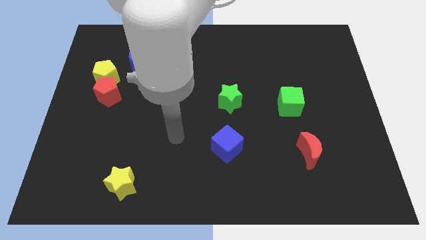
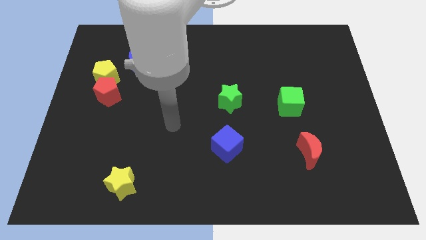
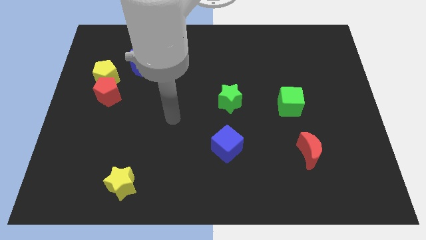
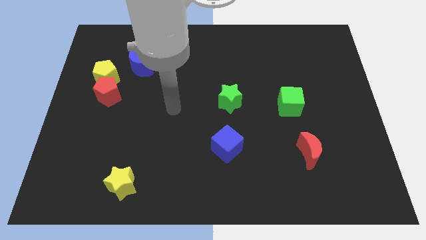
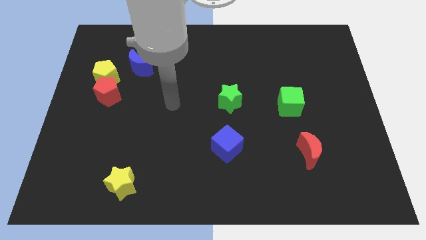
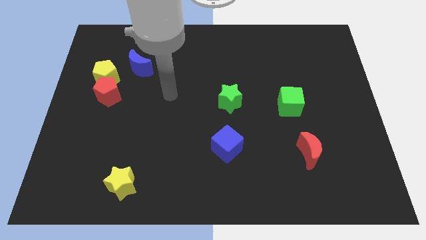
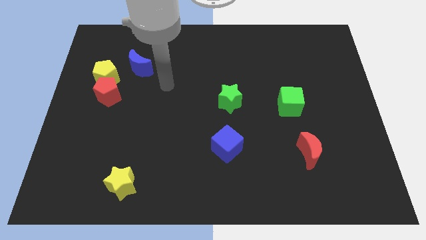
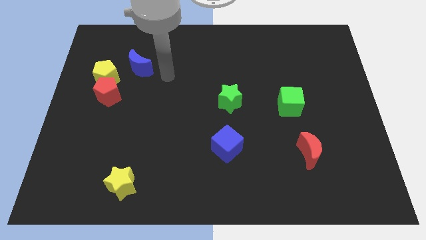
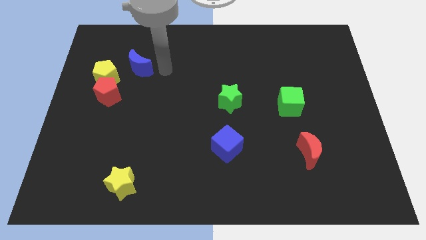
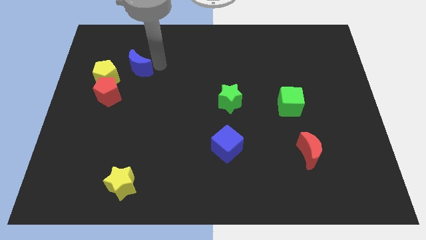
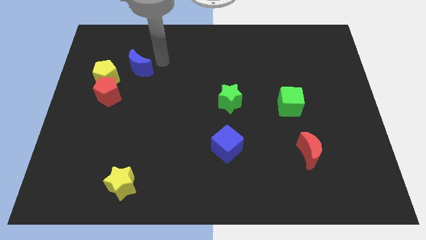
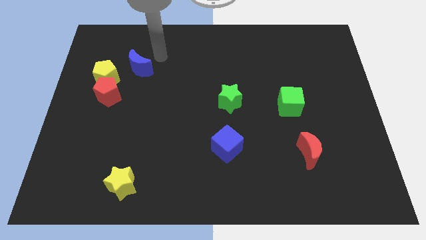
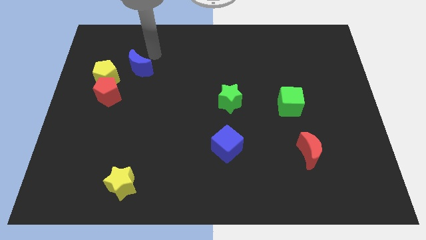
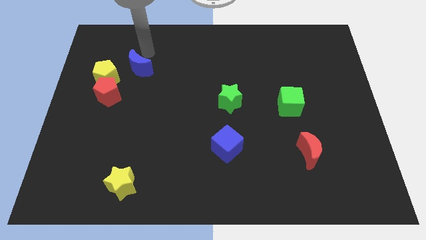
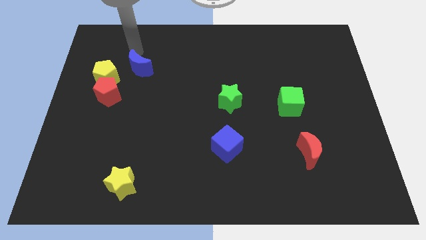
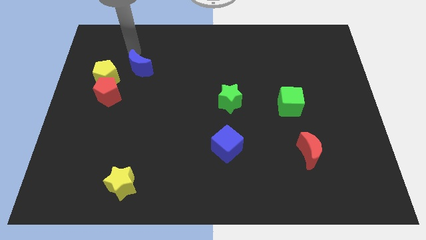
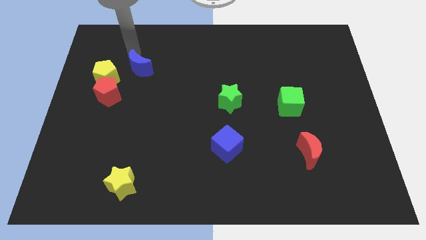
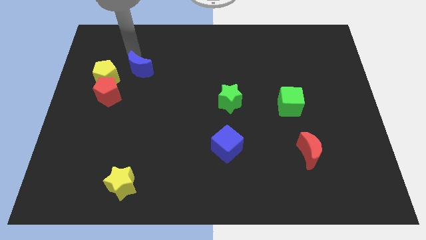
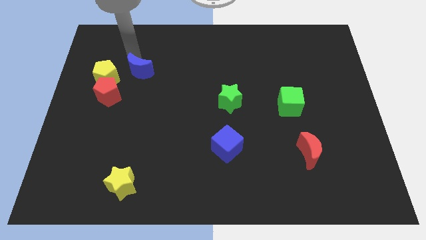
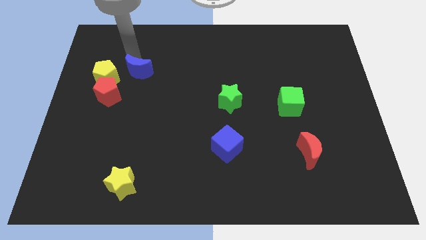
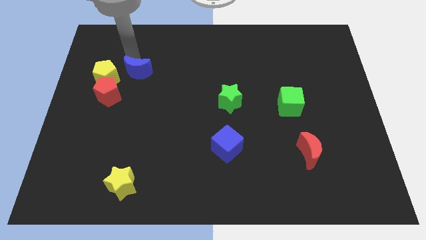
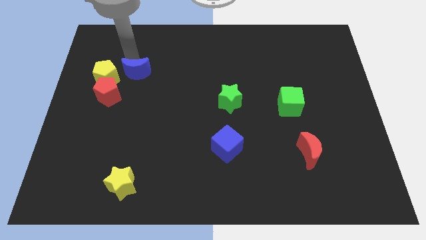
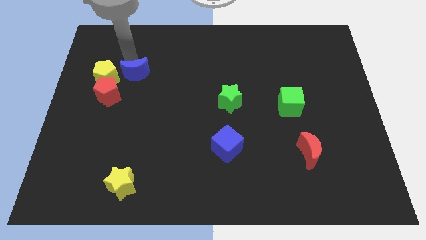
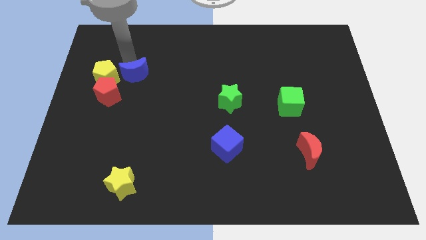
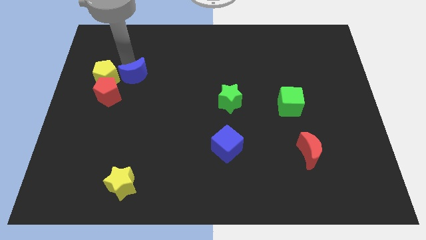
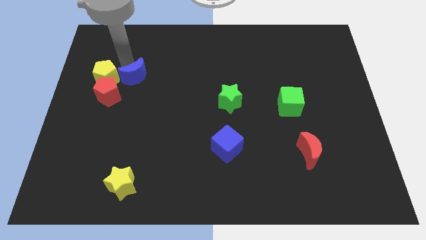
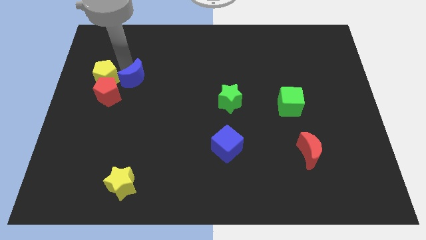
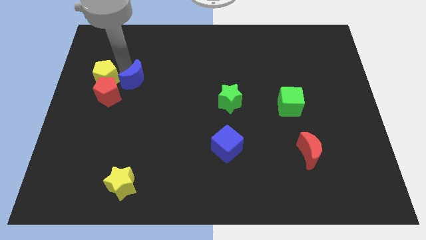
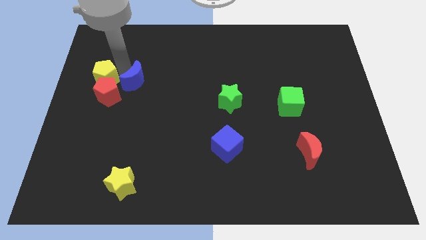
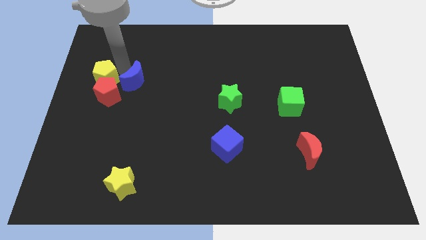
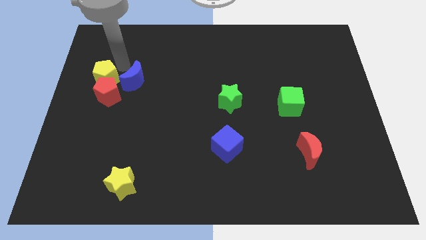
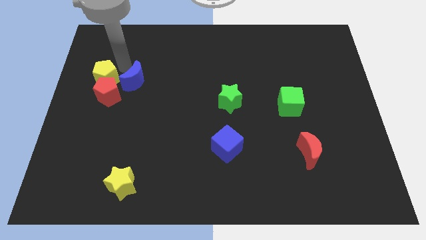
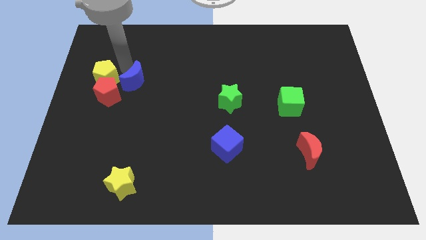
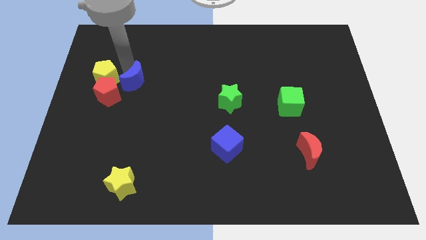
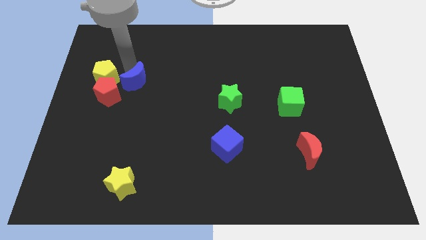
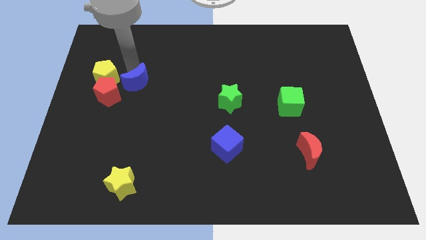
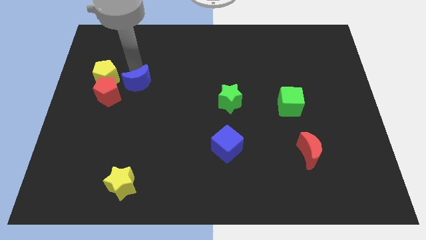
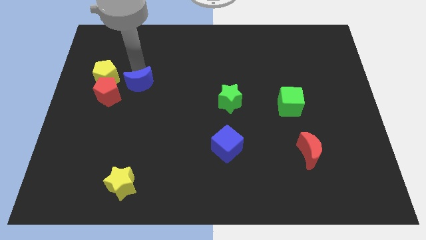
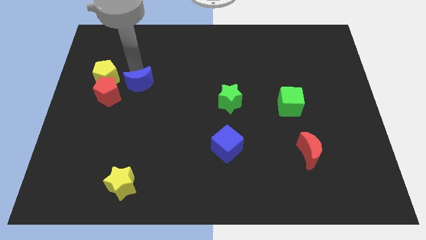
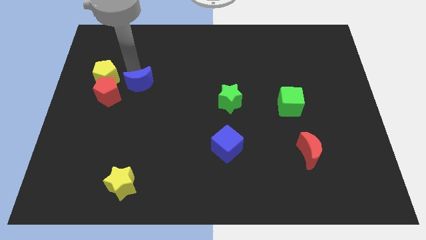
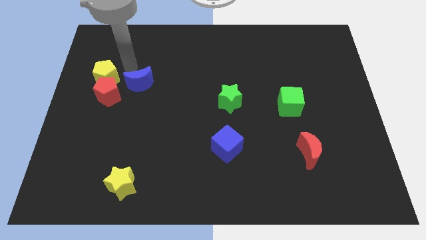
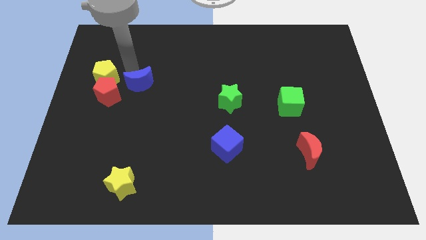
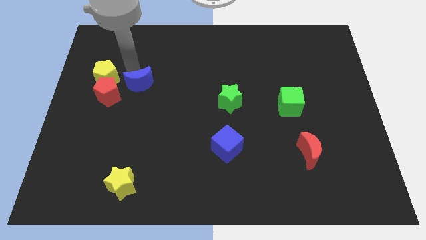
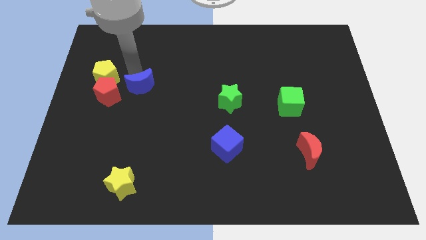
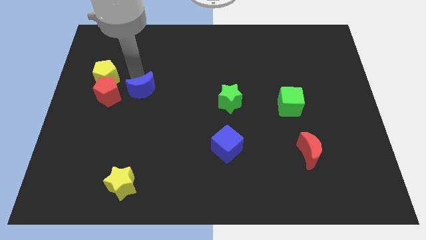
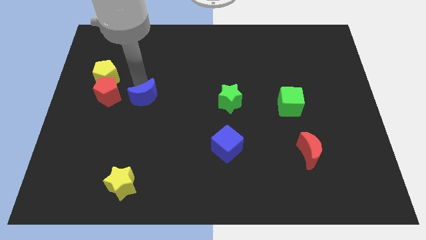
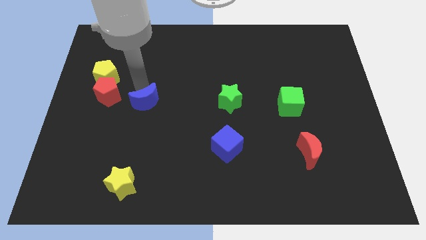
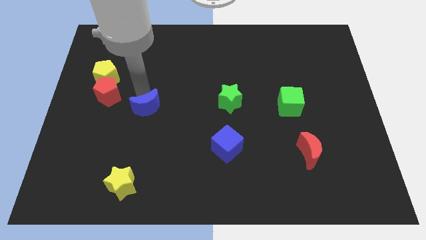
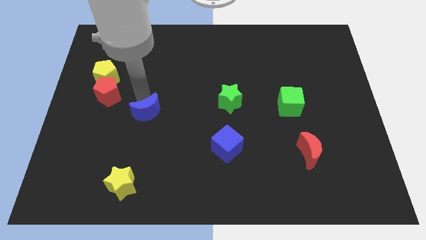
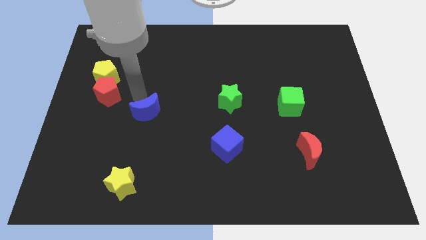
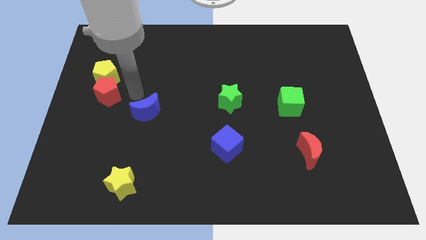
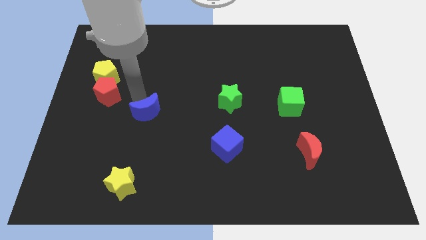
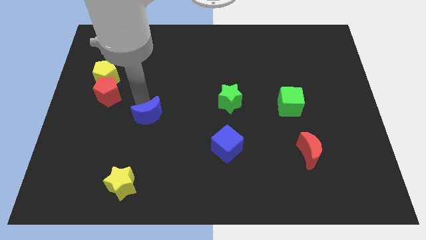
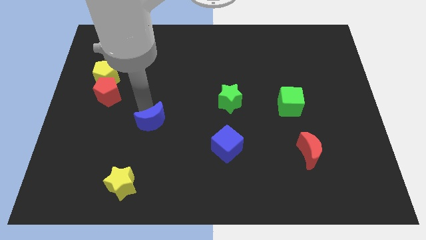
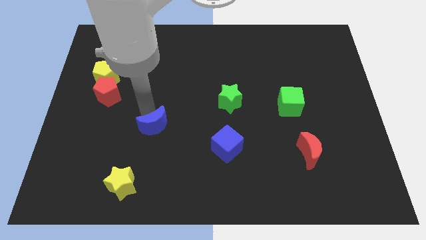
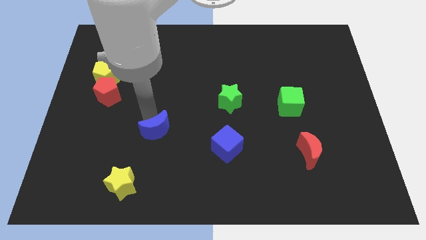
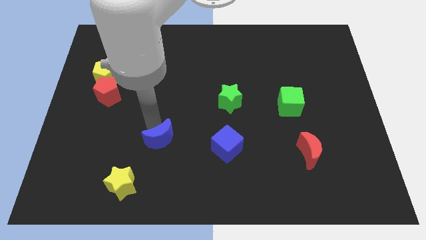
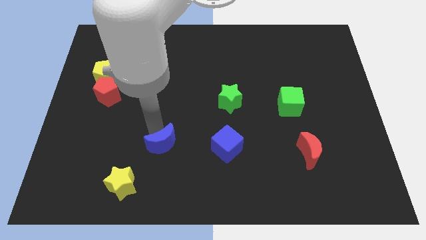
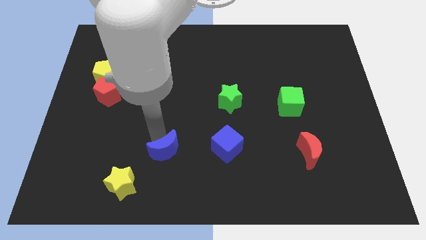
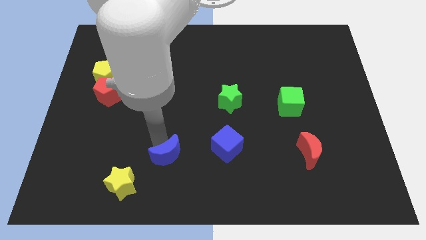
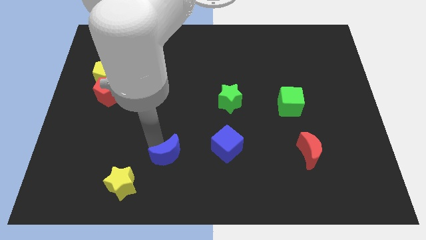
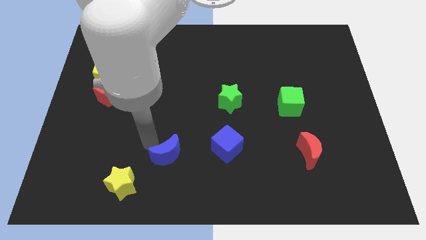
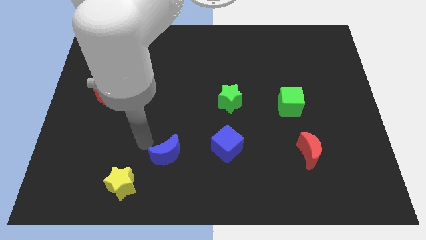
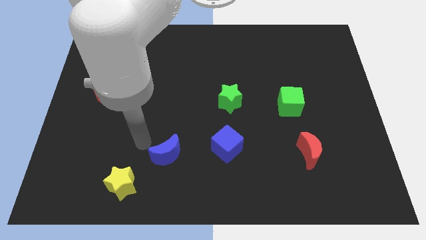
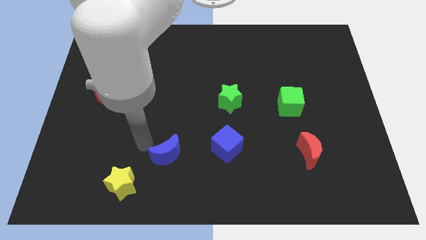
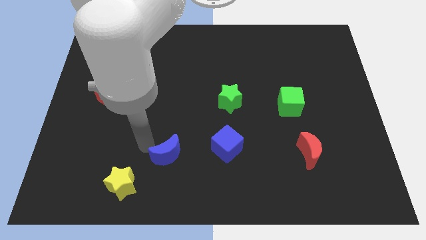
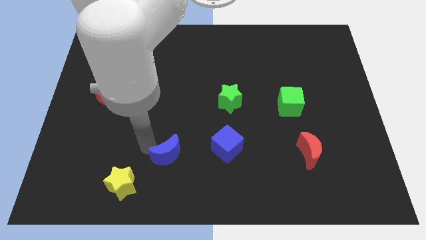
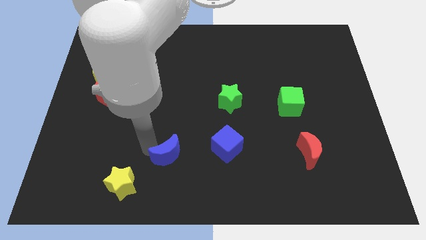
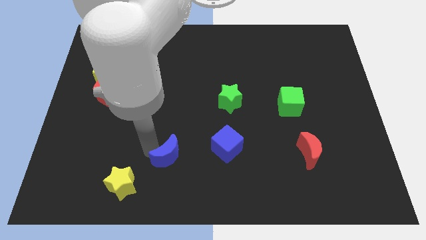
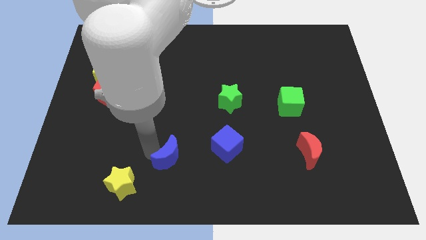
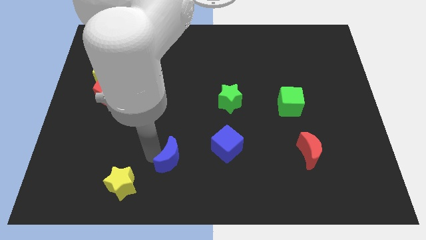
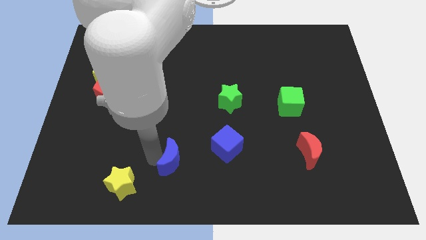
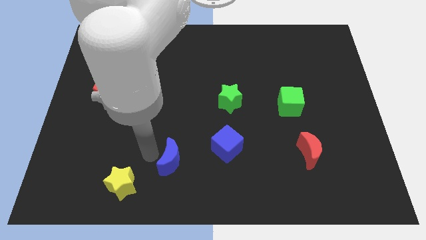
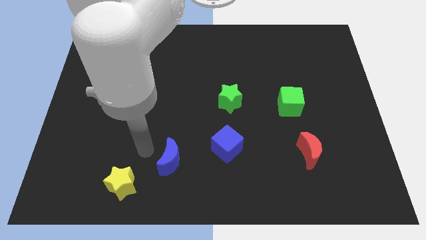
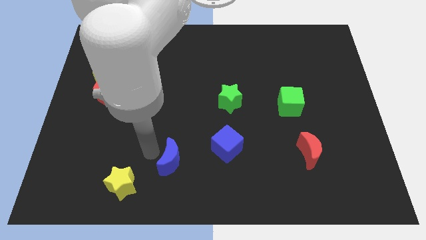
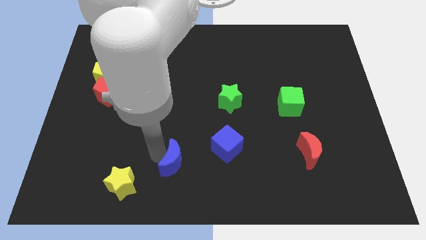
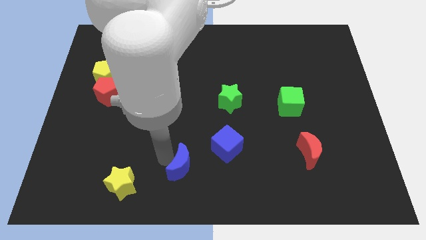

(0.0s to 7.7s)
push the blue moon to the bottom
